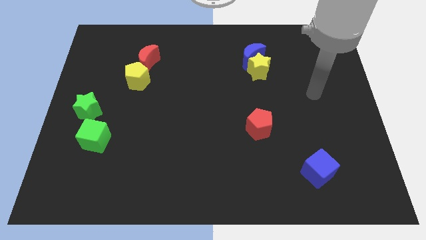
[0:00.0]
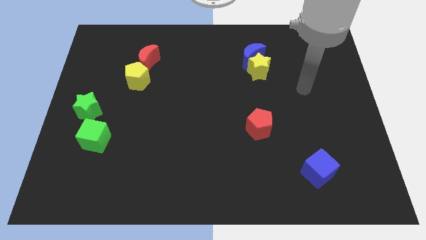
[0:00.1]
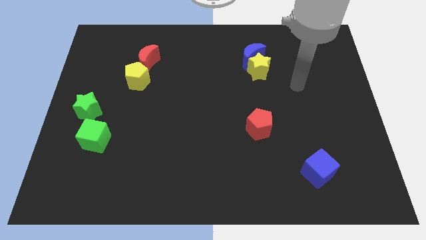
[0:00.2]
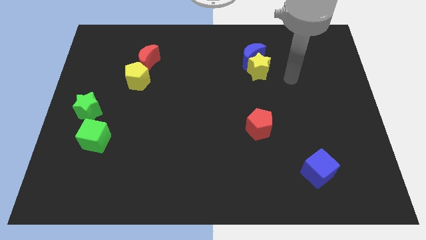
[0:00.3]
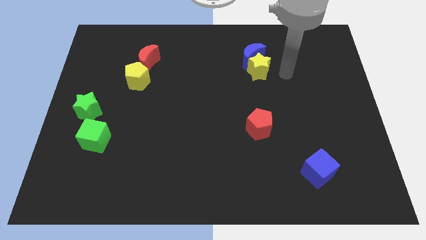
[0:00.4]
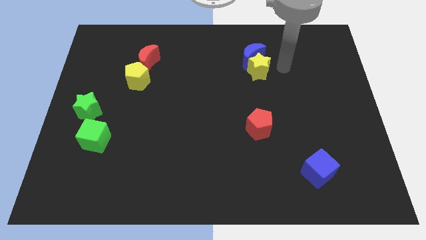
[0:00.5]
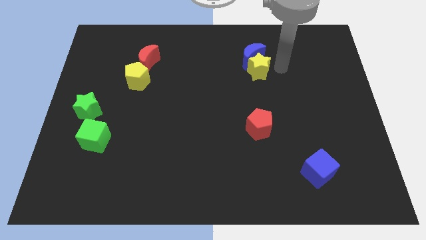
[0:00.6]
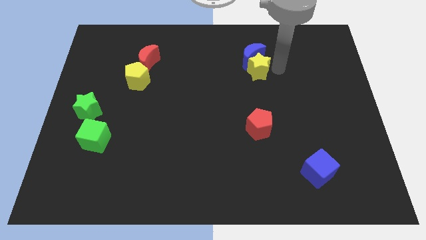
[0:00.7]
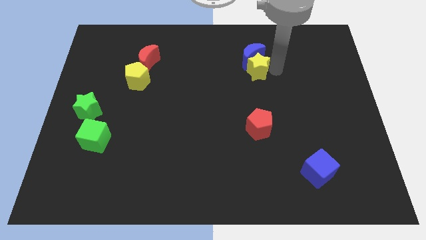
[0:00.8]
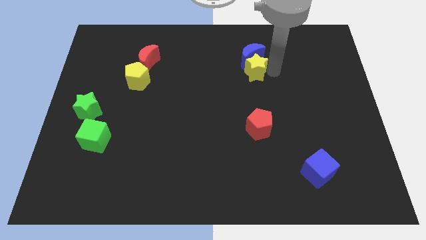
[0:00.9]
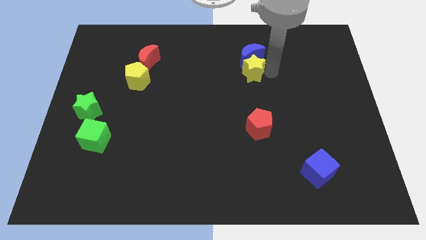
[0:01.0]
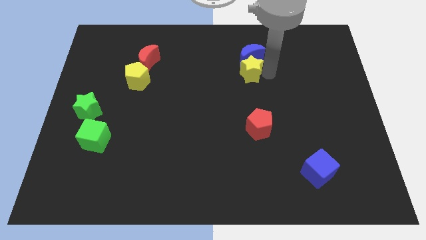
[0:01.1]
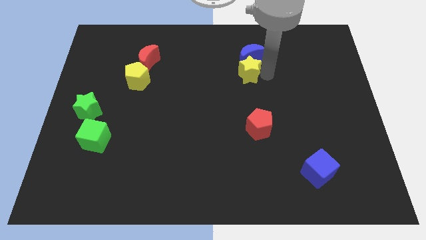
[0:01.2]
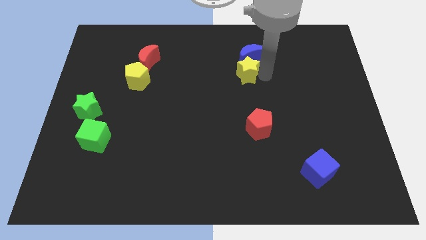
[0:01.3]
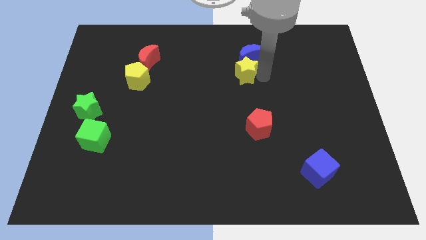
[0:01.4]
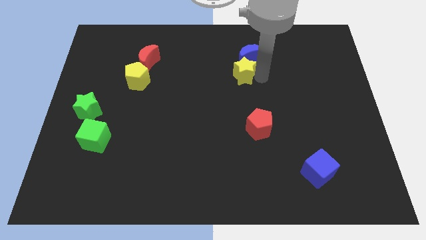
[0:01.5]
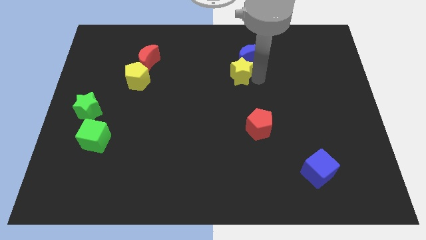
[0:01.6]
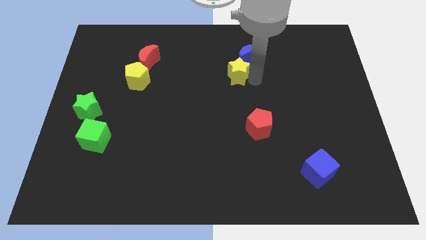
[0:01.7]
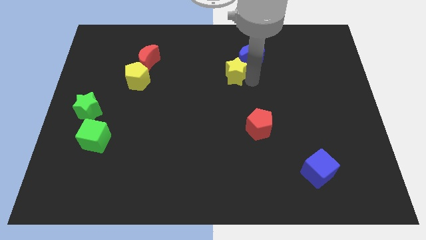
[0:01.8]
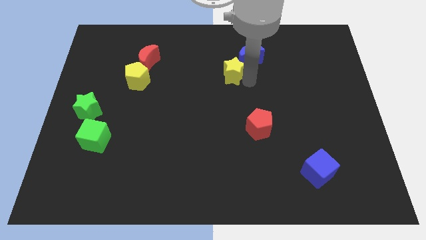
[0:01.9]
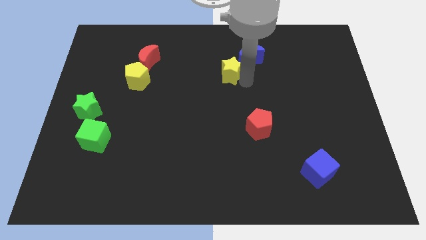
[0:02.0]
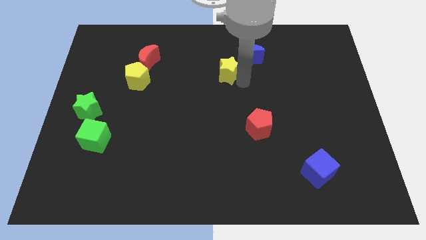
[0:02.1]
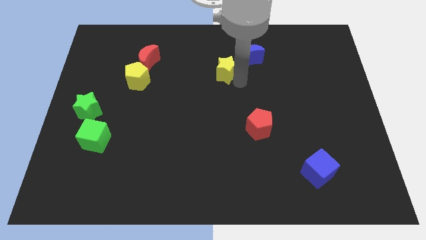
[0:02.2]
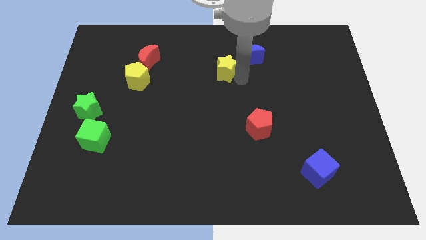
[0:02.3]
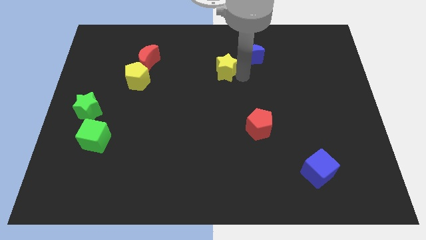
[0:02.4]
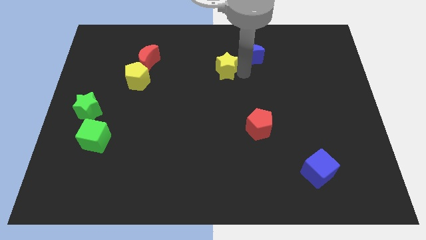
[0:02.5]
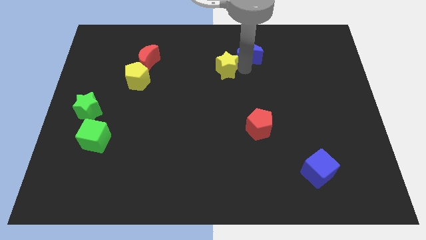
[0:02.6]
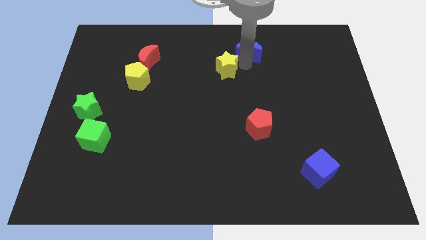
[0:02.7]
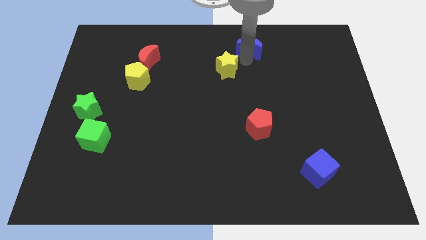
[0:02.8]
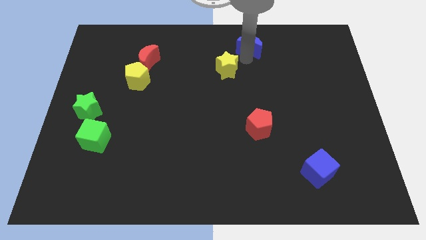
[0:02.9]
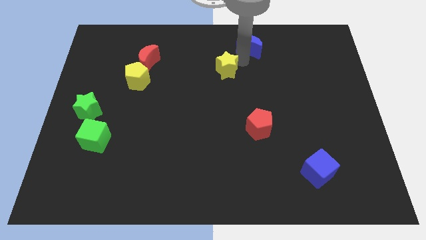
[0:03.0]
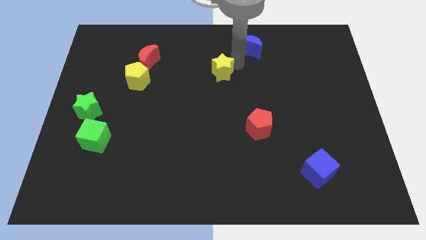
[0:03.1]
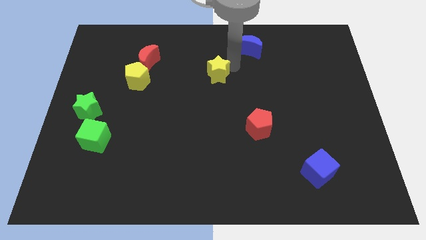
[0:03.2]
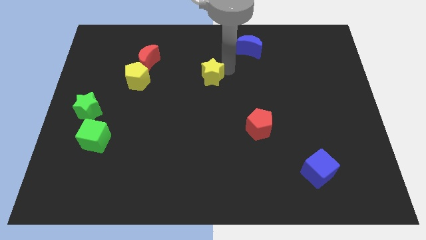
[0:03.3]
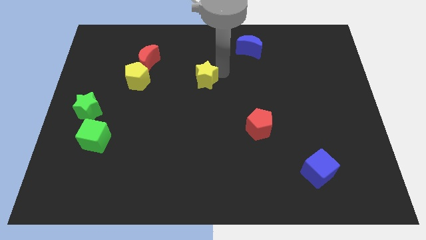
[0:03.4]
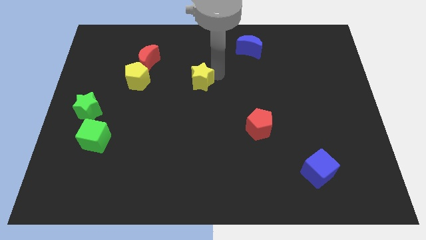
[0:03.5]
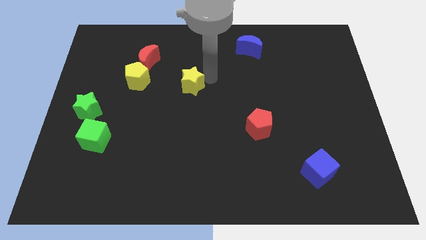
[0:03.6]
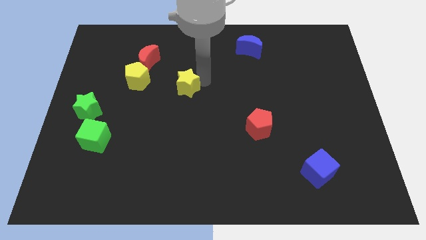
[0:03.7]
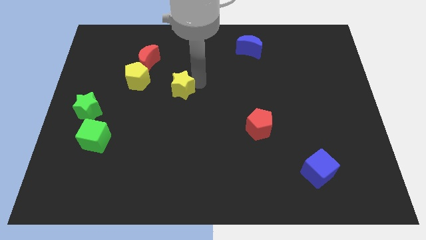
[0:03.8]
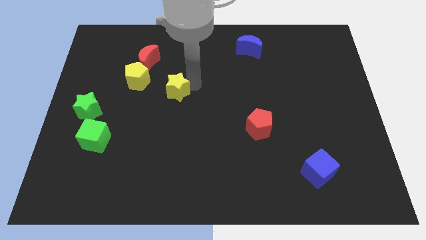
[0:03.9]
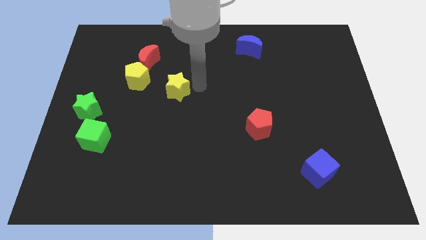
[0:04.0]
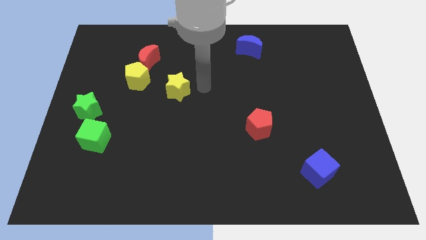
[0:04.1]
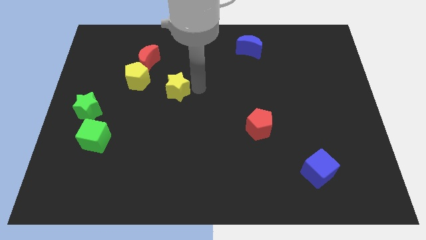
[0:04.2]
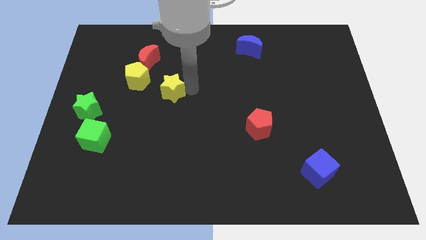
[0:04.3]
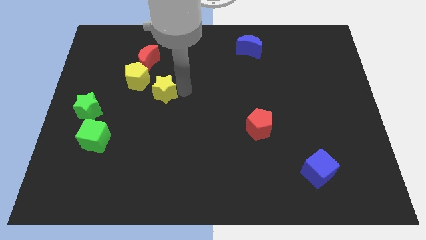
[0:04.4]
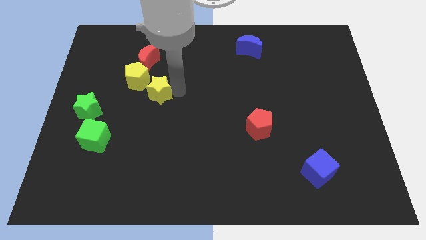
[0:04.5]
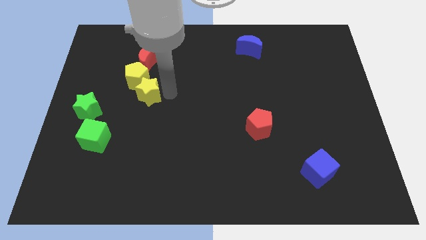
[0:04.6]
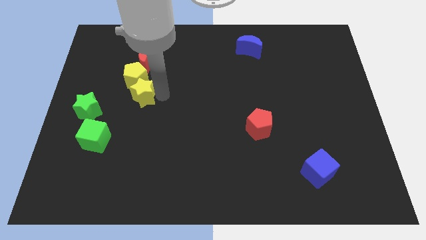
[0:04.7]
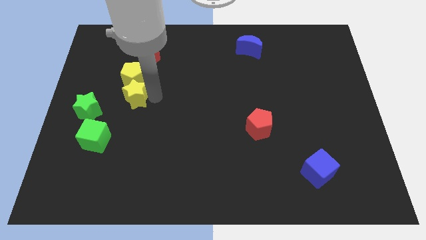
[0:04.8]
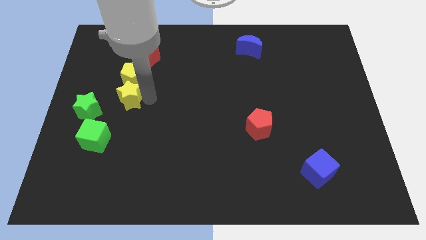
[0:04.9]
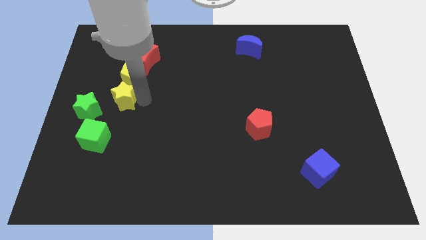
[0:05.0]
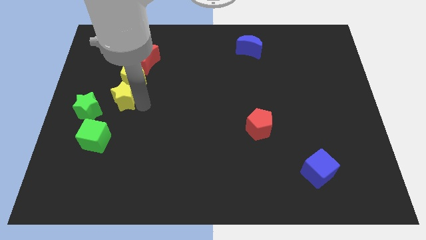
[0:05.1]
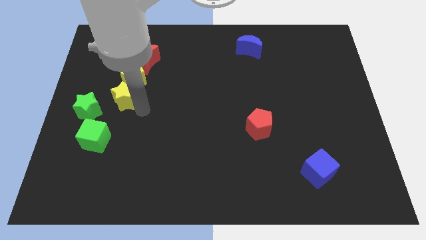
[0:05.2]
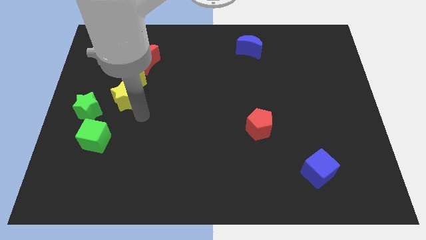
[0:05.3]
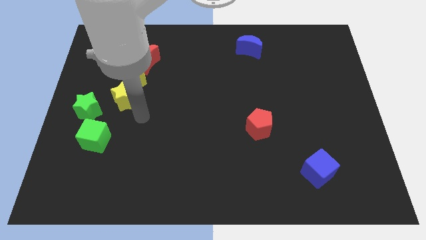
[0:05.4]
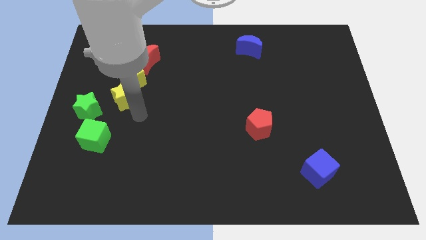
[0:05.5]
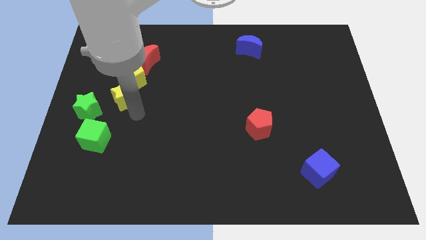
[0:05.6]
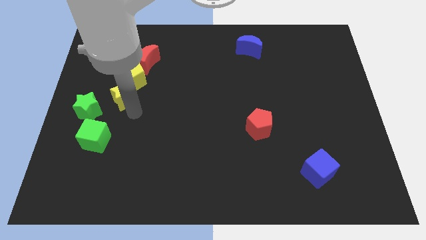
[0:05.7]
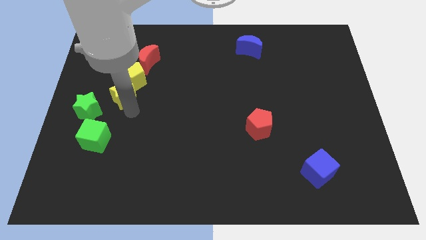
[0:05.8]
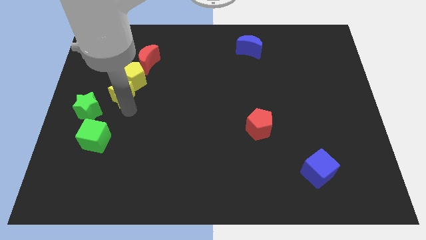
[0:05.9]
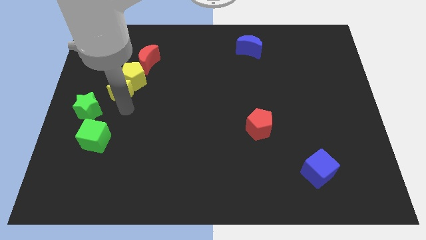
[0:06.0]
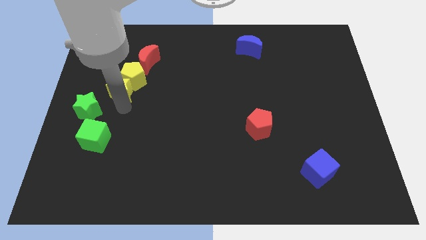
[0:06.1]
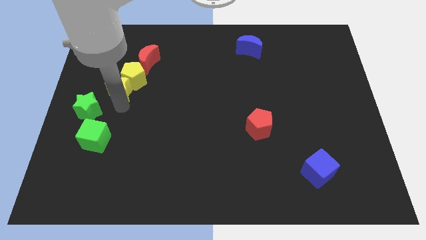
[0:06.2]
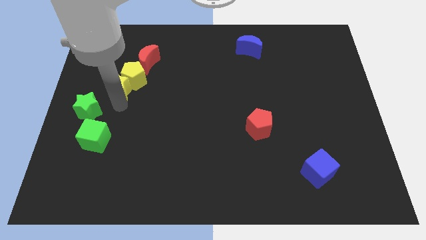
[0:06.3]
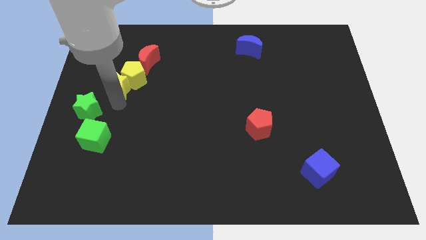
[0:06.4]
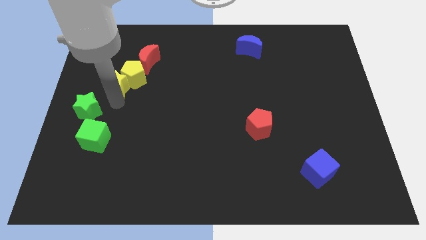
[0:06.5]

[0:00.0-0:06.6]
move the yellow star to the top of the green star
